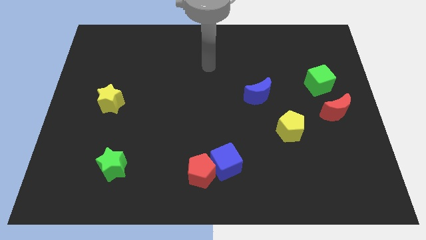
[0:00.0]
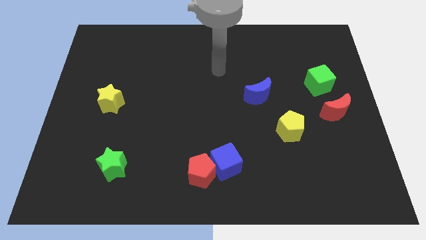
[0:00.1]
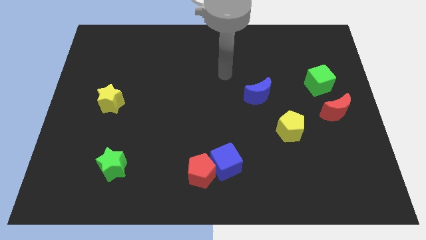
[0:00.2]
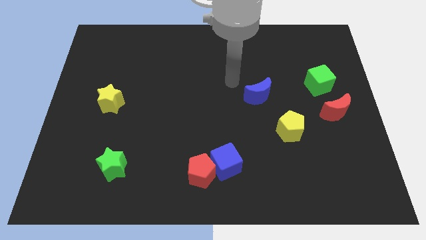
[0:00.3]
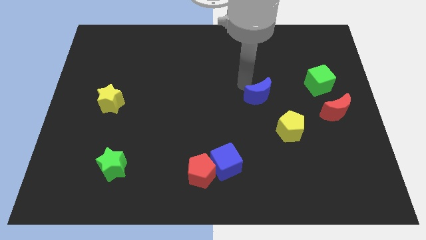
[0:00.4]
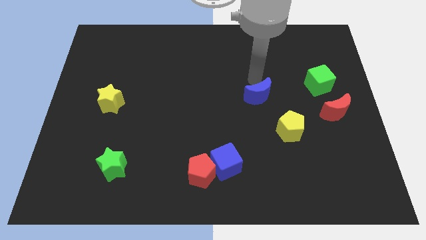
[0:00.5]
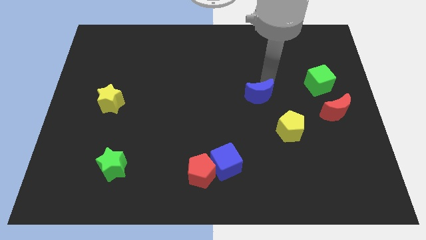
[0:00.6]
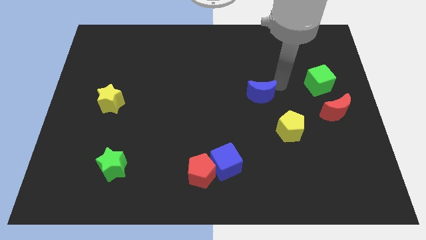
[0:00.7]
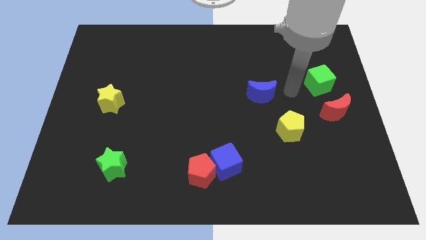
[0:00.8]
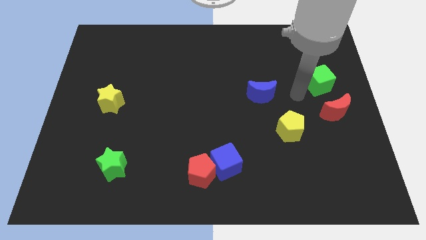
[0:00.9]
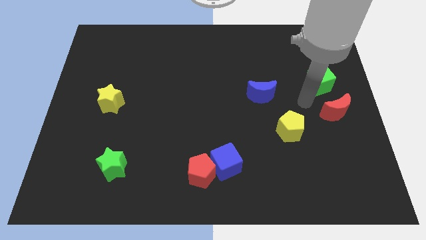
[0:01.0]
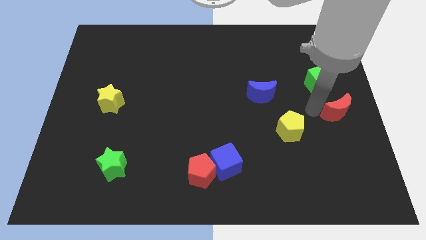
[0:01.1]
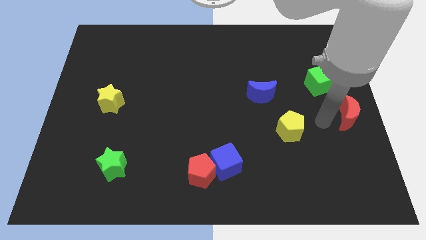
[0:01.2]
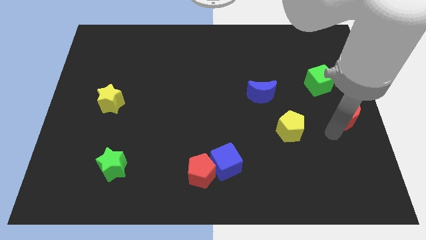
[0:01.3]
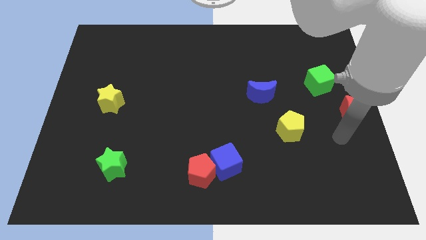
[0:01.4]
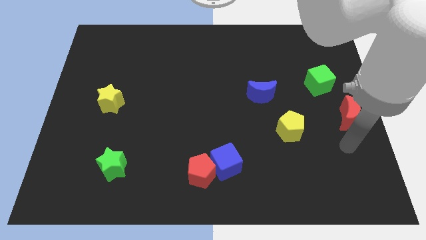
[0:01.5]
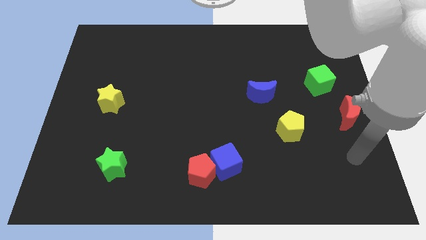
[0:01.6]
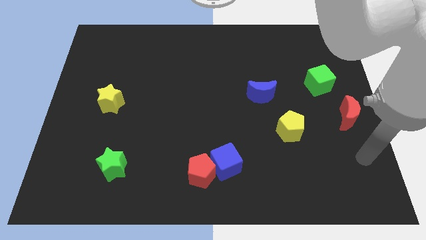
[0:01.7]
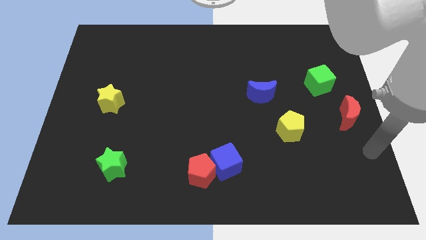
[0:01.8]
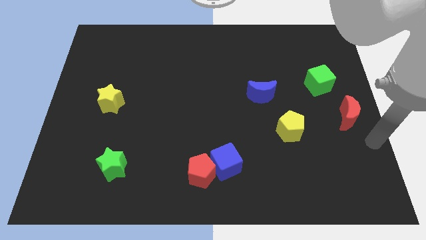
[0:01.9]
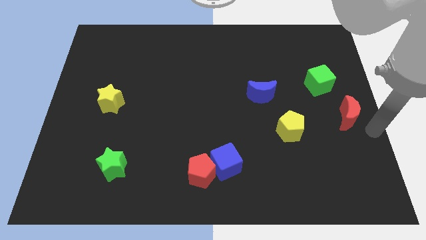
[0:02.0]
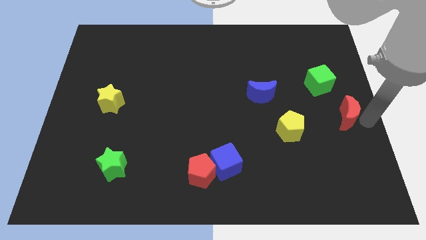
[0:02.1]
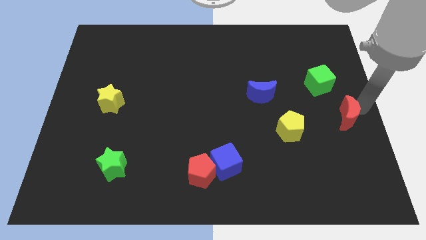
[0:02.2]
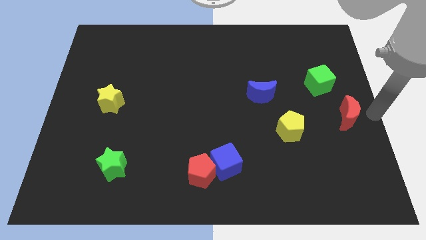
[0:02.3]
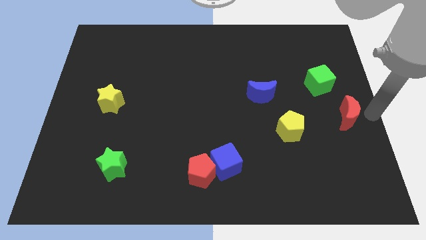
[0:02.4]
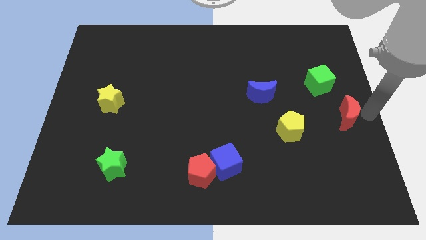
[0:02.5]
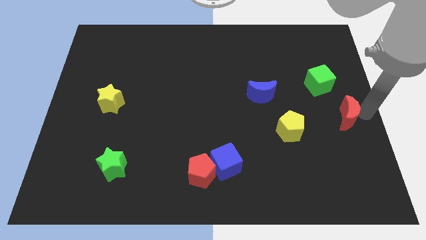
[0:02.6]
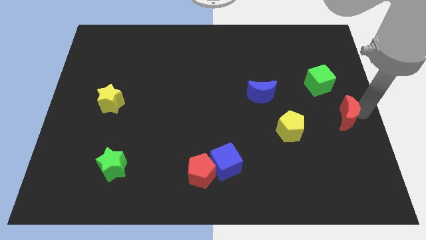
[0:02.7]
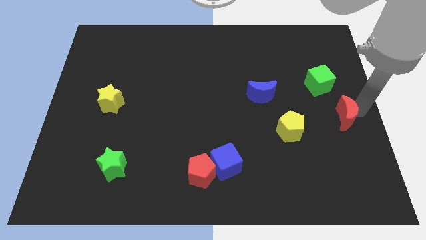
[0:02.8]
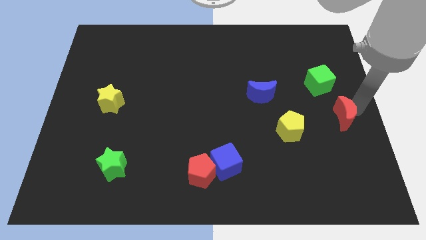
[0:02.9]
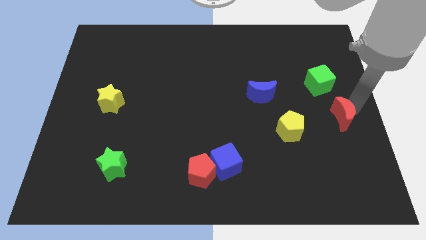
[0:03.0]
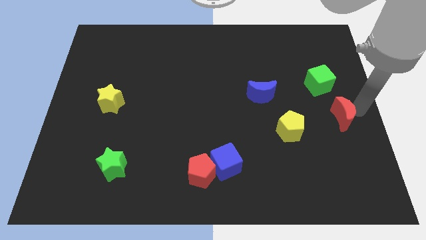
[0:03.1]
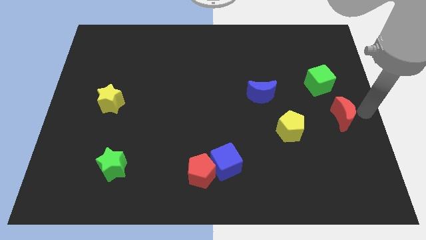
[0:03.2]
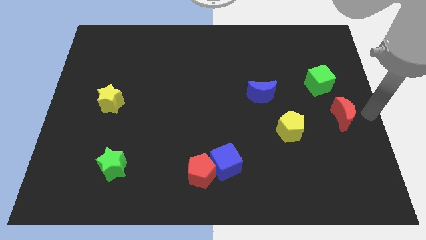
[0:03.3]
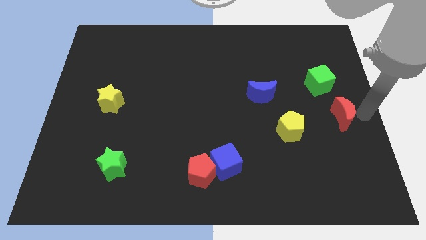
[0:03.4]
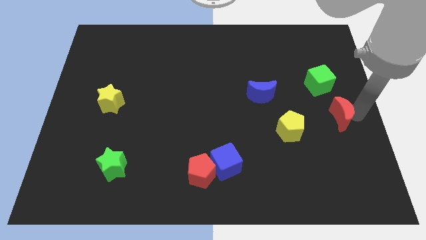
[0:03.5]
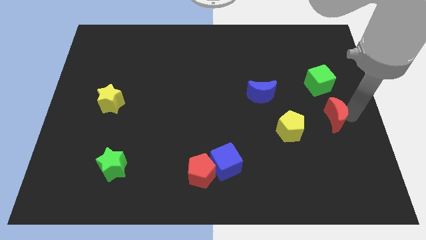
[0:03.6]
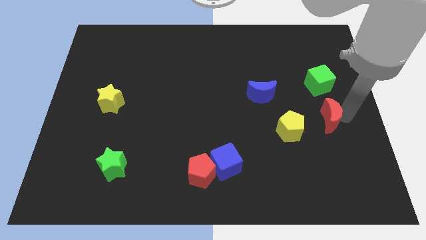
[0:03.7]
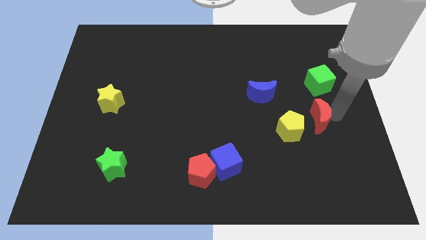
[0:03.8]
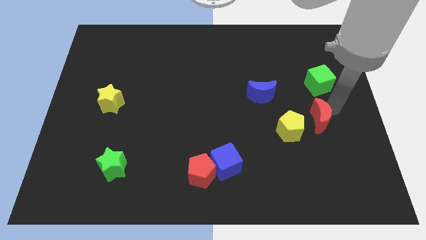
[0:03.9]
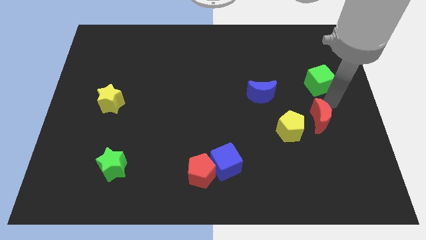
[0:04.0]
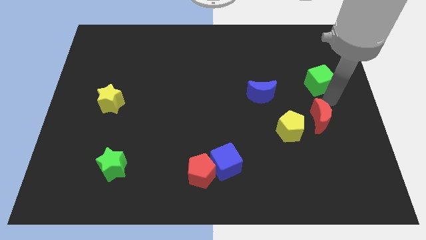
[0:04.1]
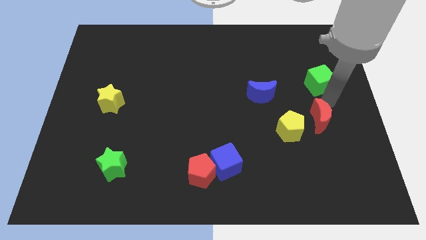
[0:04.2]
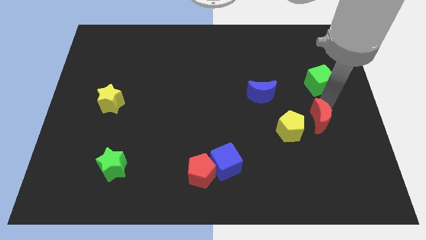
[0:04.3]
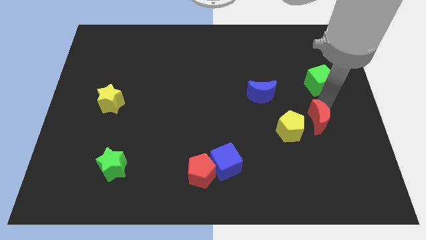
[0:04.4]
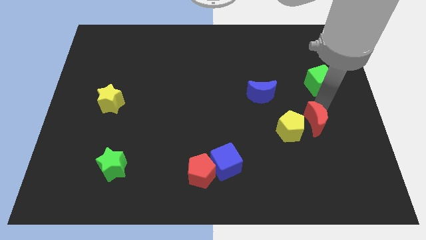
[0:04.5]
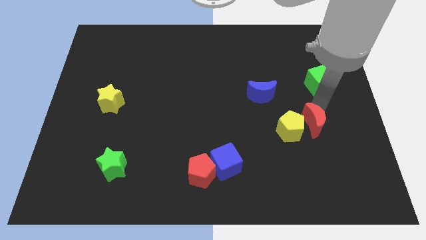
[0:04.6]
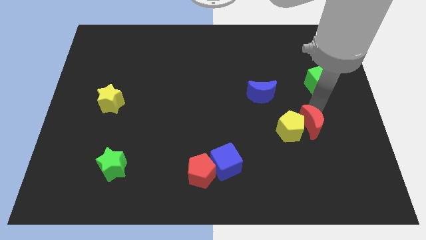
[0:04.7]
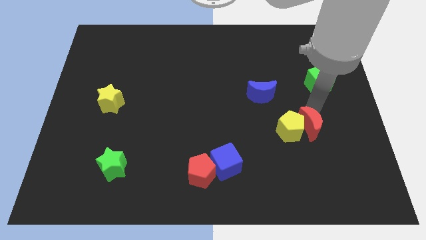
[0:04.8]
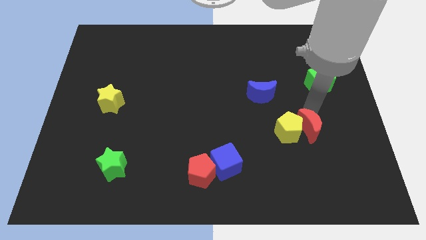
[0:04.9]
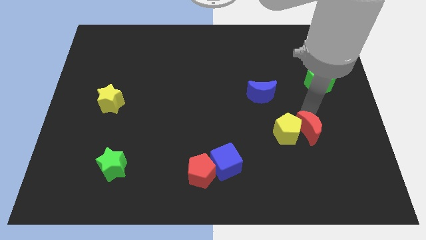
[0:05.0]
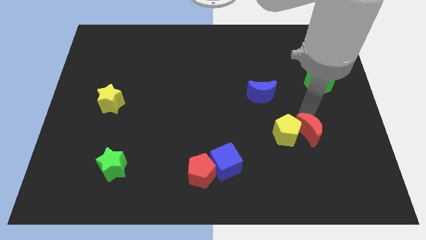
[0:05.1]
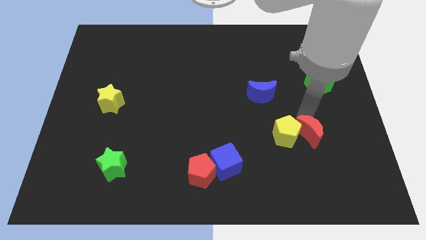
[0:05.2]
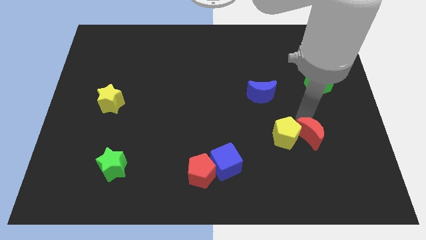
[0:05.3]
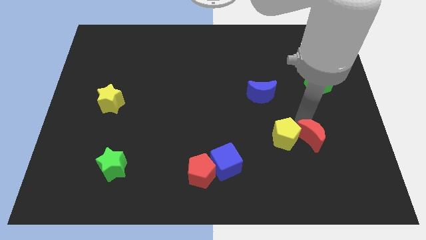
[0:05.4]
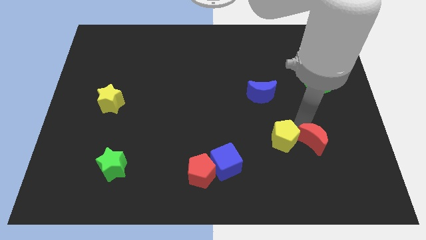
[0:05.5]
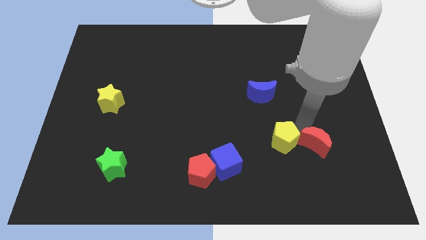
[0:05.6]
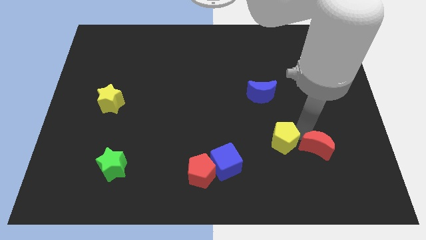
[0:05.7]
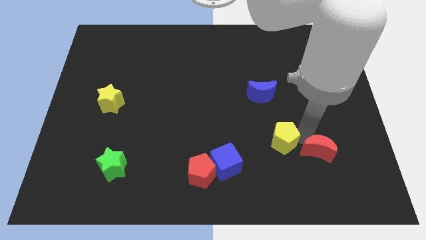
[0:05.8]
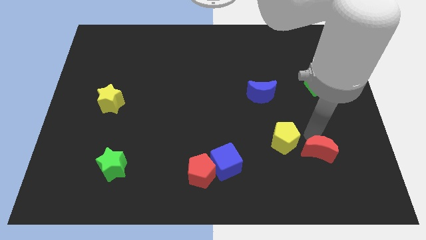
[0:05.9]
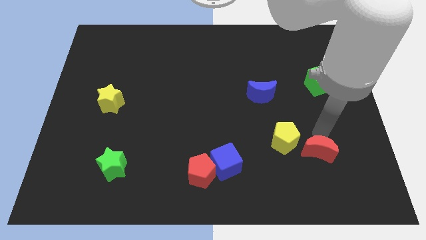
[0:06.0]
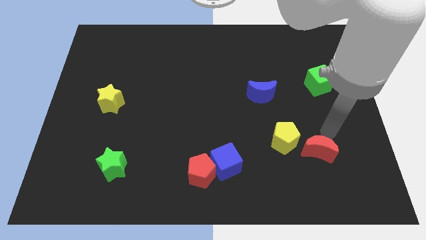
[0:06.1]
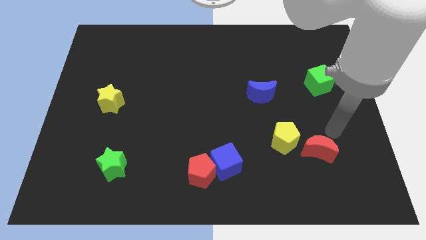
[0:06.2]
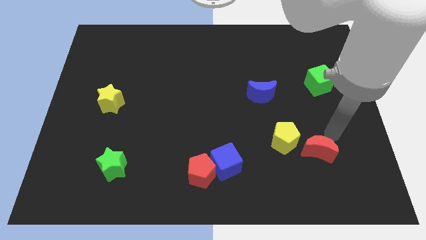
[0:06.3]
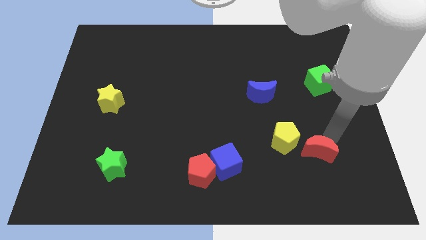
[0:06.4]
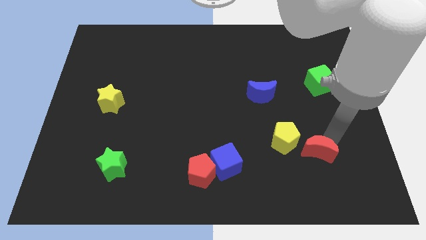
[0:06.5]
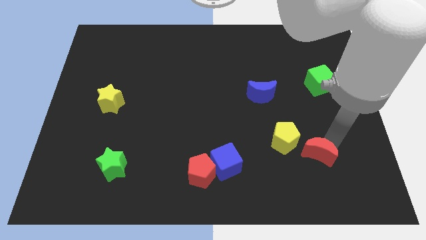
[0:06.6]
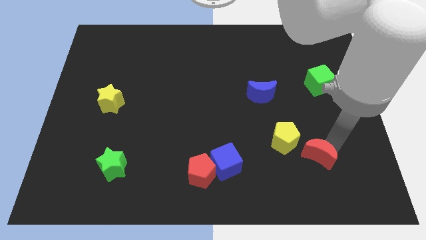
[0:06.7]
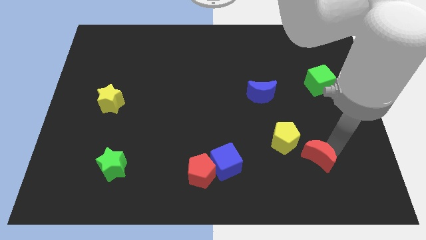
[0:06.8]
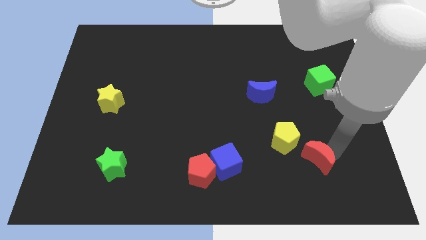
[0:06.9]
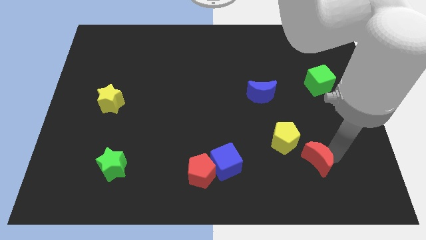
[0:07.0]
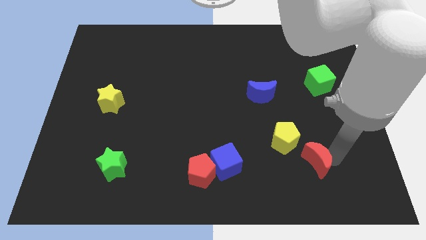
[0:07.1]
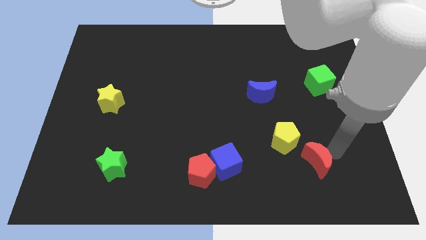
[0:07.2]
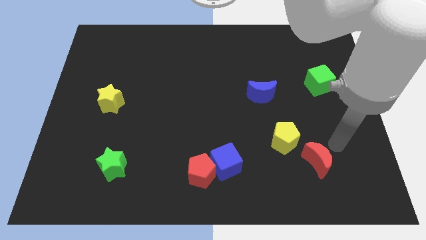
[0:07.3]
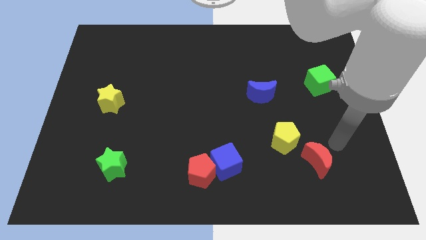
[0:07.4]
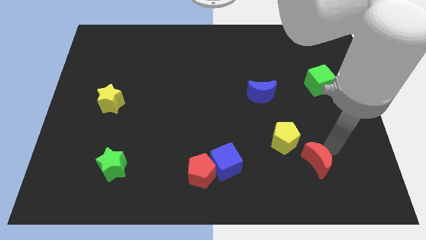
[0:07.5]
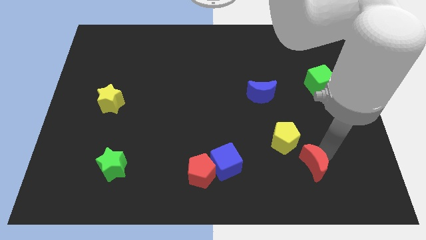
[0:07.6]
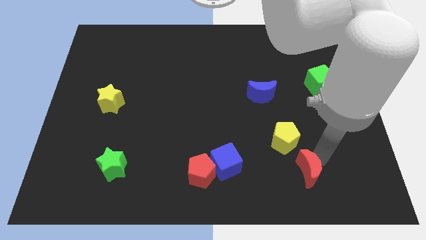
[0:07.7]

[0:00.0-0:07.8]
put the red moon below the yellow pentagon
